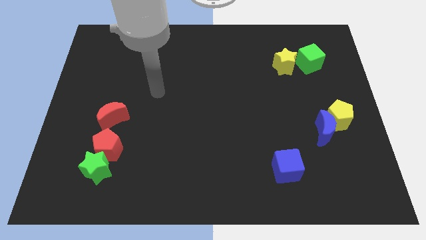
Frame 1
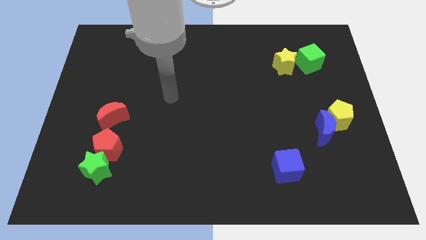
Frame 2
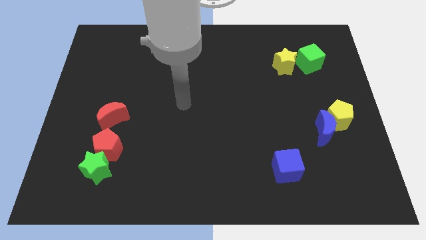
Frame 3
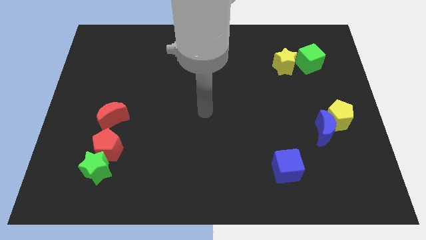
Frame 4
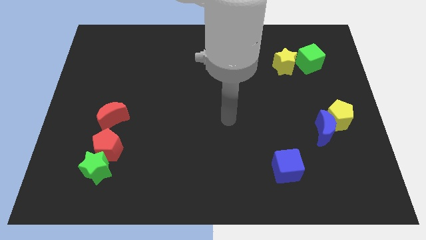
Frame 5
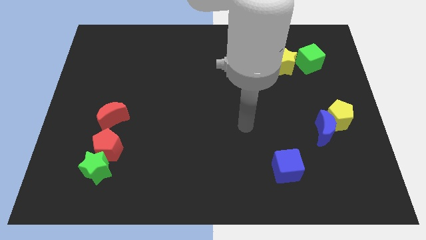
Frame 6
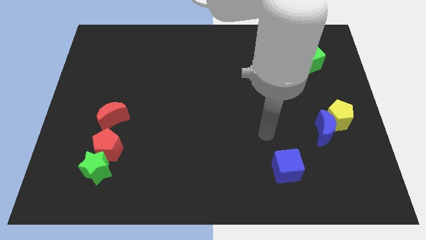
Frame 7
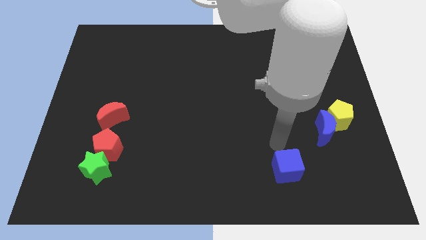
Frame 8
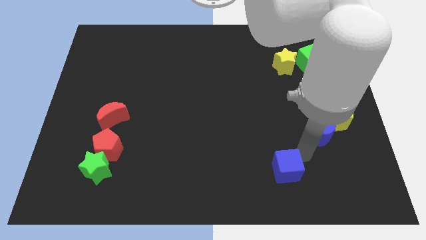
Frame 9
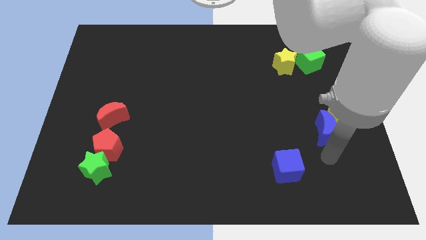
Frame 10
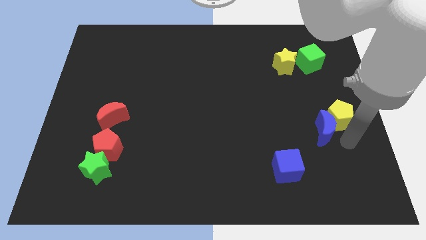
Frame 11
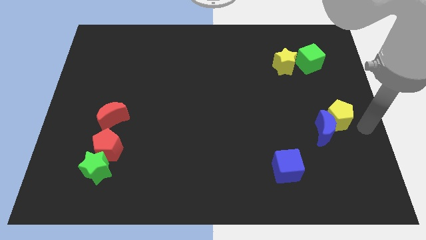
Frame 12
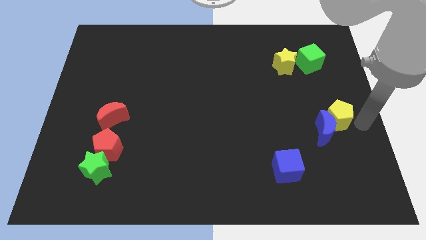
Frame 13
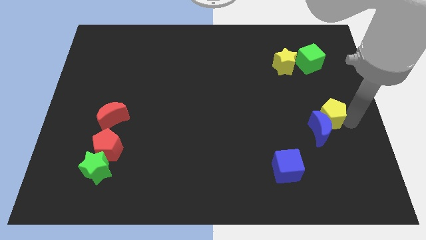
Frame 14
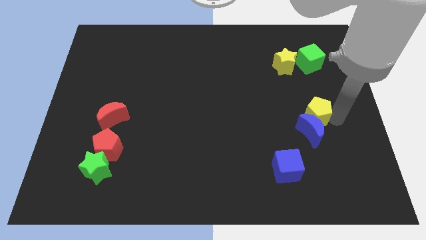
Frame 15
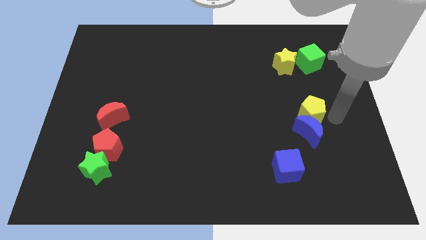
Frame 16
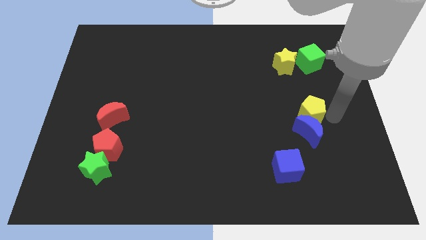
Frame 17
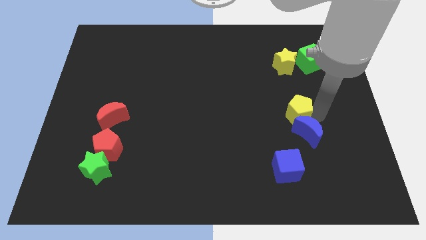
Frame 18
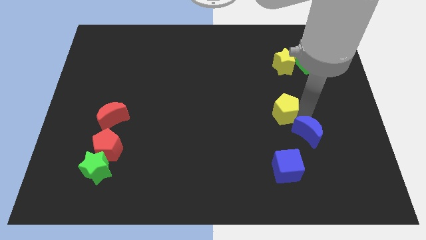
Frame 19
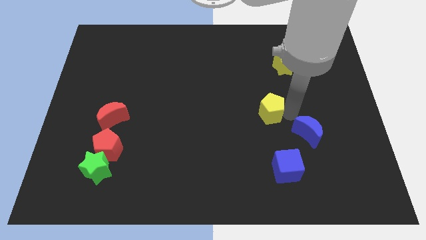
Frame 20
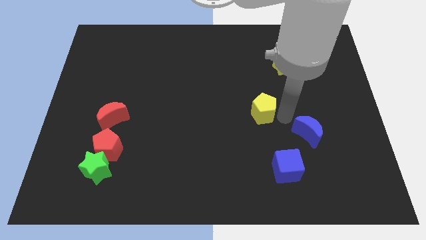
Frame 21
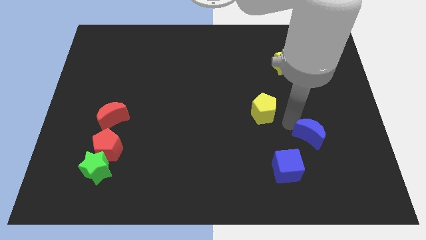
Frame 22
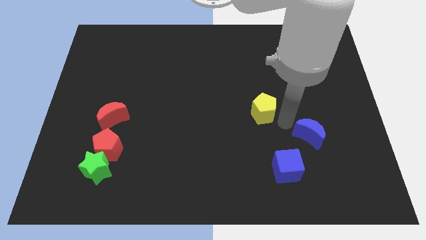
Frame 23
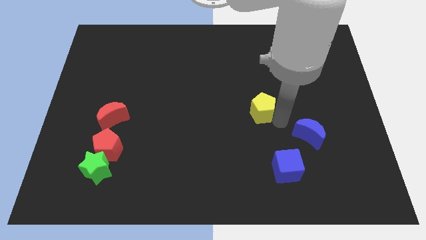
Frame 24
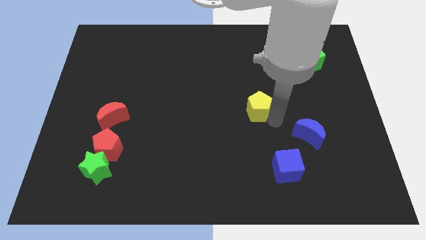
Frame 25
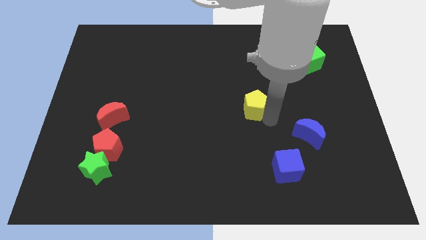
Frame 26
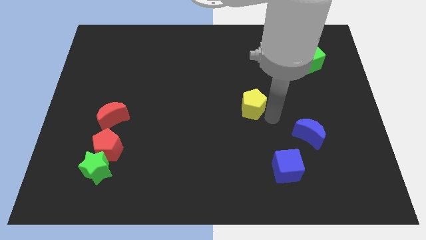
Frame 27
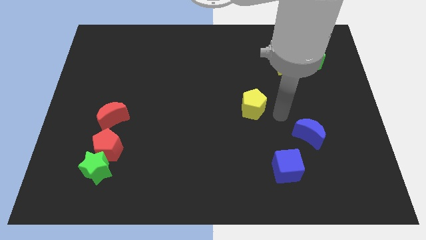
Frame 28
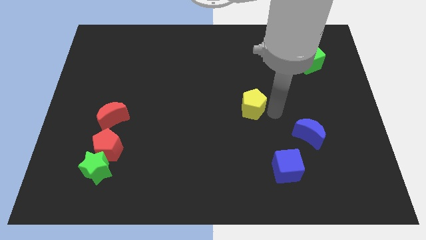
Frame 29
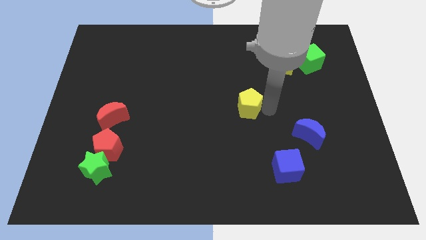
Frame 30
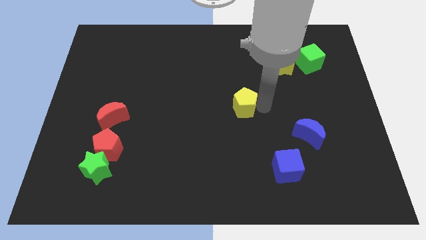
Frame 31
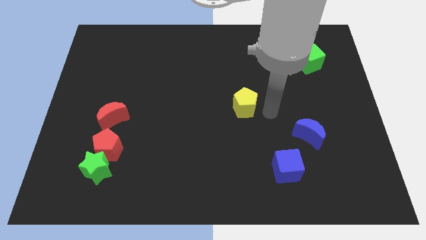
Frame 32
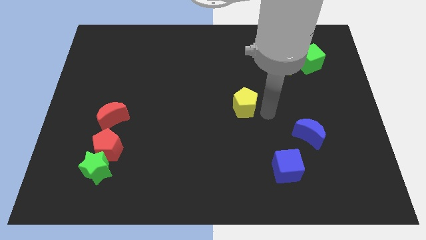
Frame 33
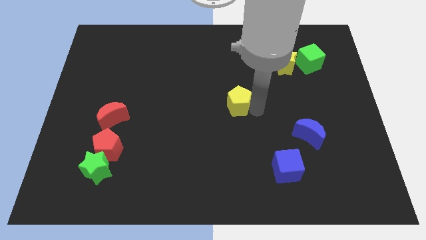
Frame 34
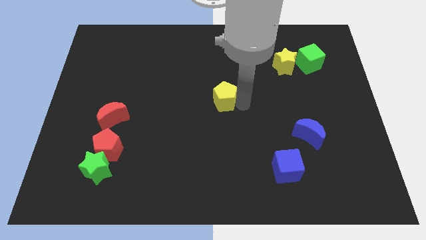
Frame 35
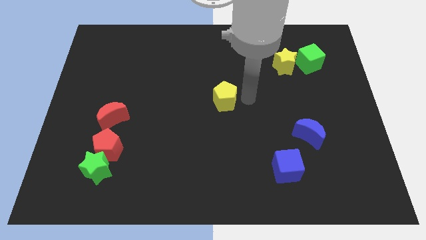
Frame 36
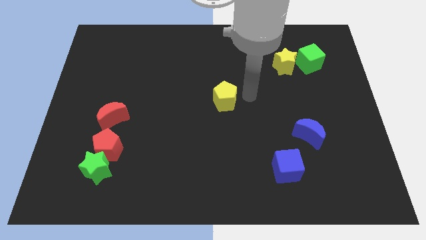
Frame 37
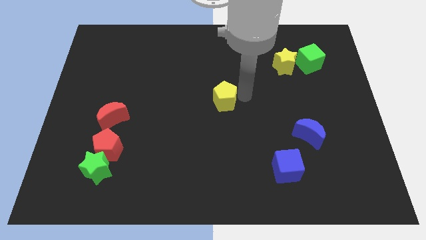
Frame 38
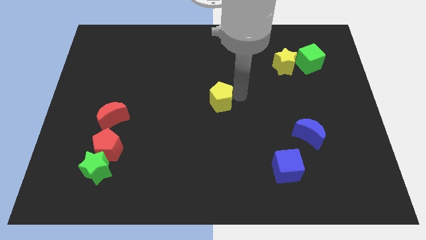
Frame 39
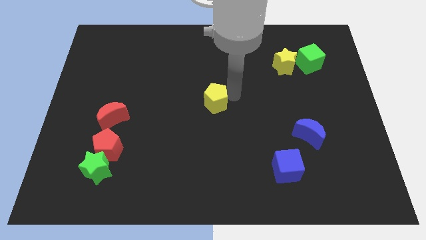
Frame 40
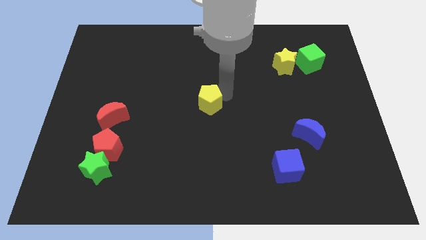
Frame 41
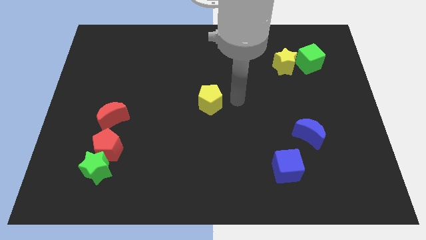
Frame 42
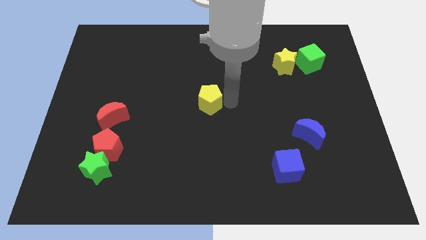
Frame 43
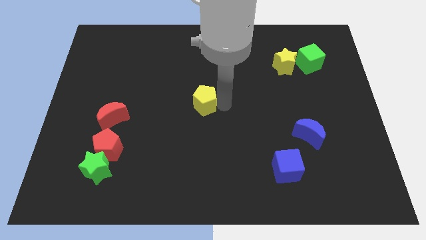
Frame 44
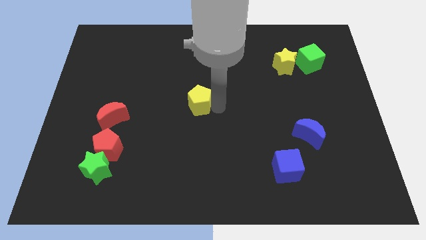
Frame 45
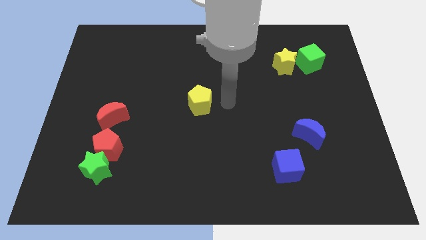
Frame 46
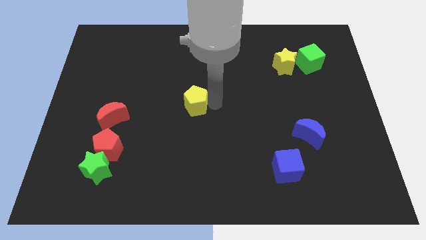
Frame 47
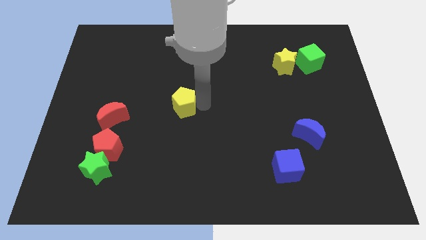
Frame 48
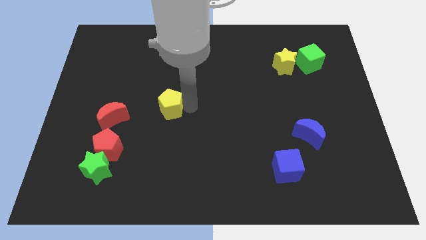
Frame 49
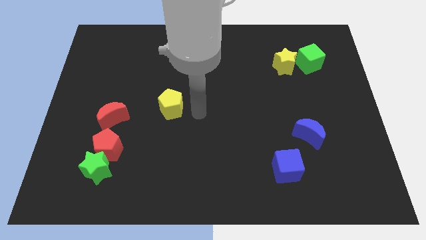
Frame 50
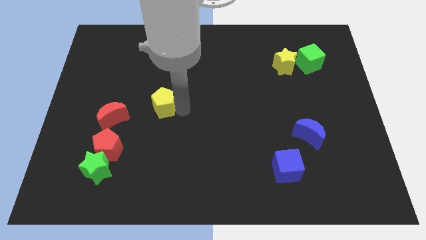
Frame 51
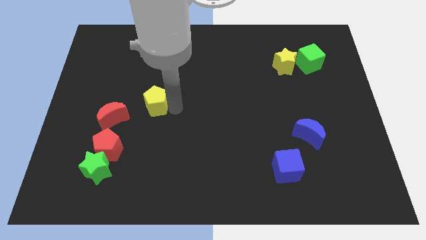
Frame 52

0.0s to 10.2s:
move the yellow pentagon to the top right side of the red moon

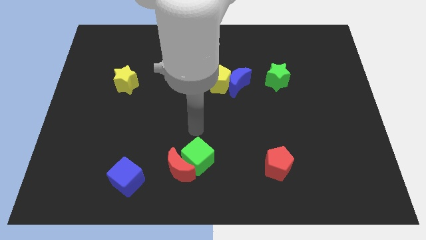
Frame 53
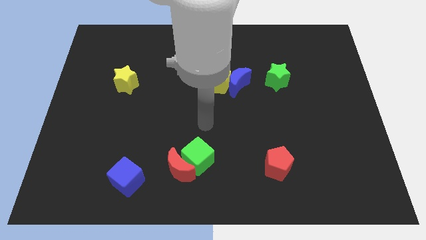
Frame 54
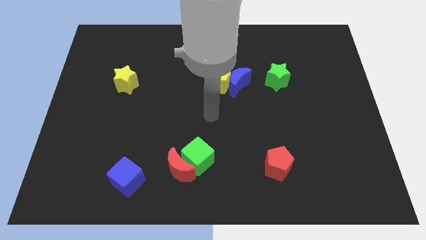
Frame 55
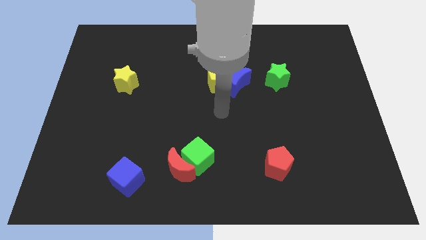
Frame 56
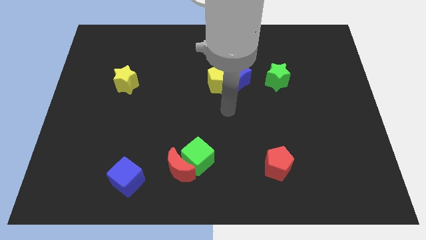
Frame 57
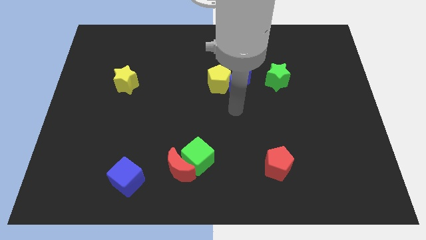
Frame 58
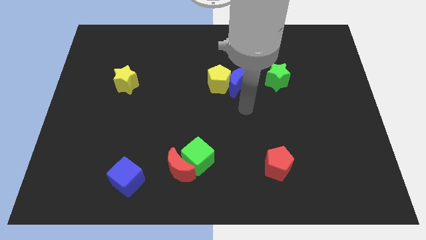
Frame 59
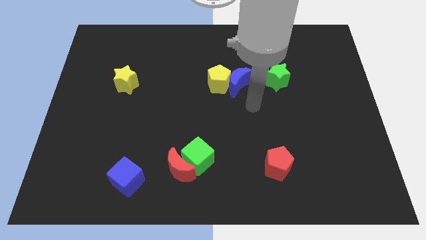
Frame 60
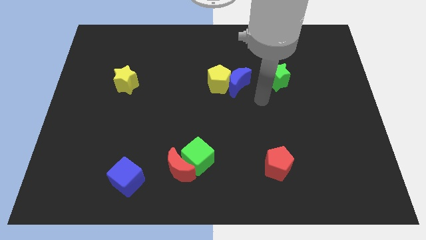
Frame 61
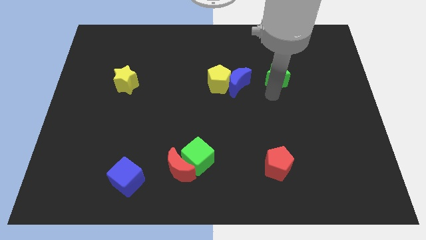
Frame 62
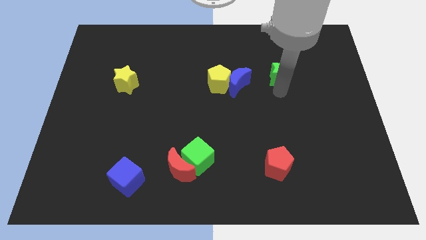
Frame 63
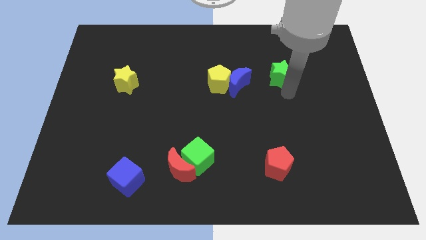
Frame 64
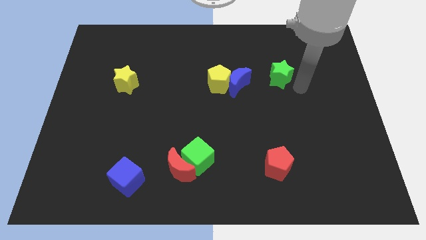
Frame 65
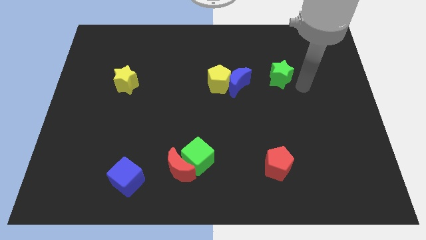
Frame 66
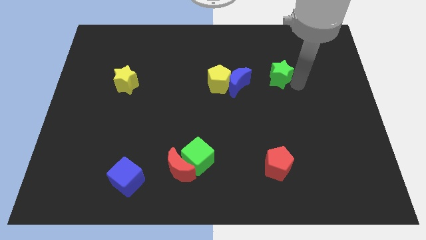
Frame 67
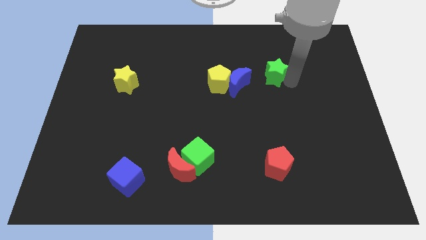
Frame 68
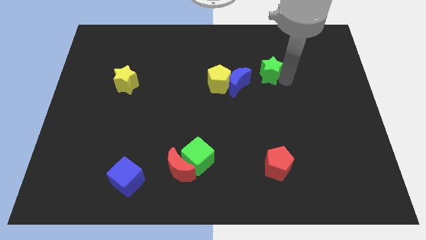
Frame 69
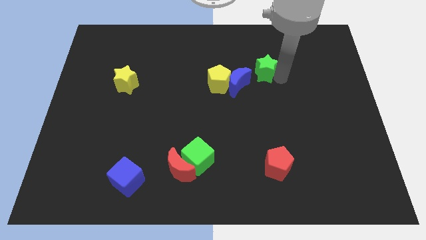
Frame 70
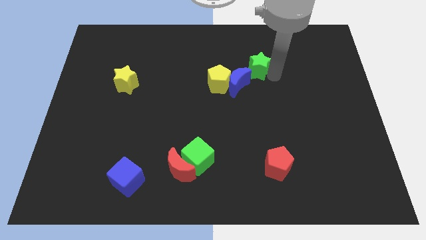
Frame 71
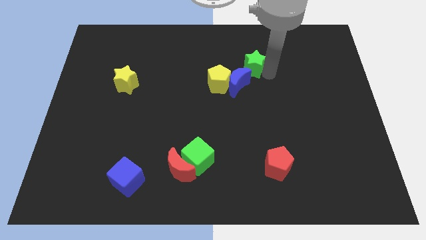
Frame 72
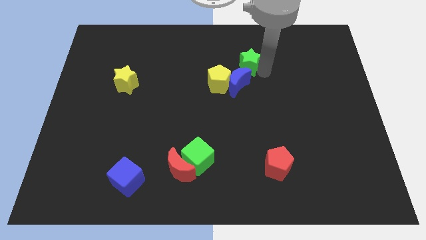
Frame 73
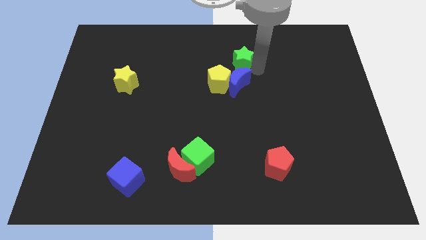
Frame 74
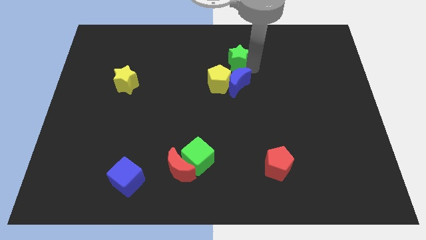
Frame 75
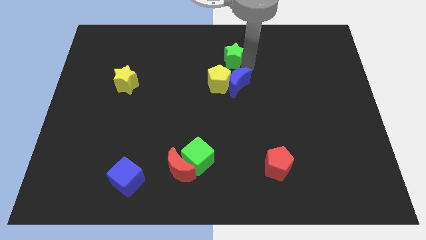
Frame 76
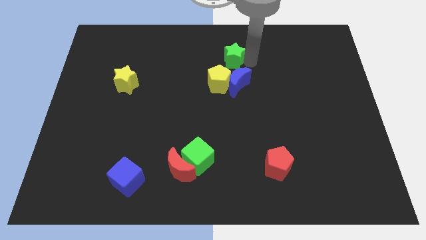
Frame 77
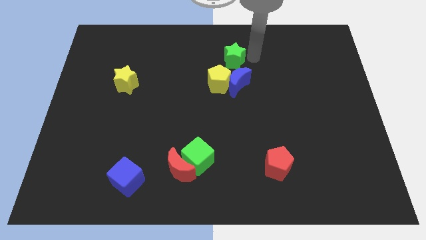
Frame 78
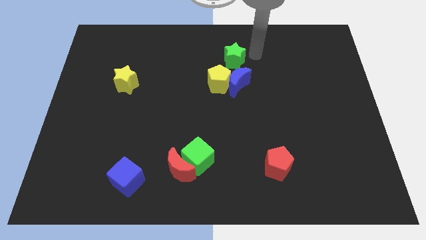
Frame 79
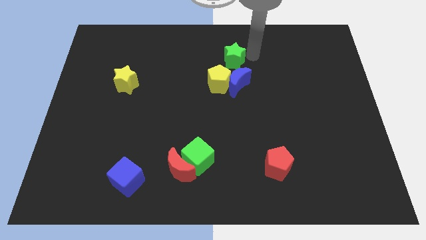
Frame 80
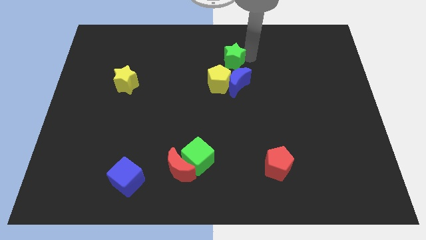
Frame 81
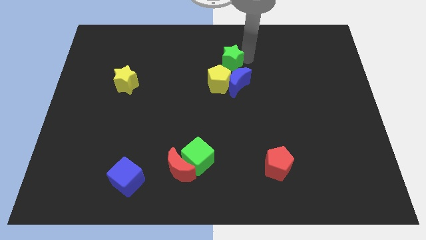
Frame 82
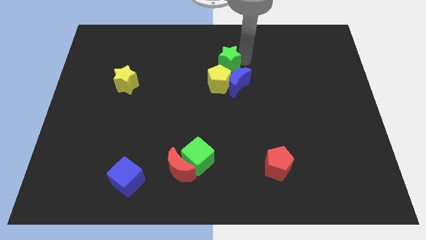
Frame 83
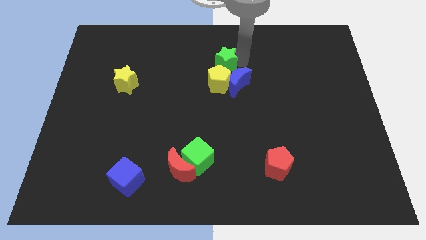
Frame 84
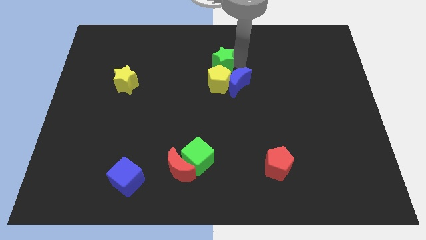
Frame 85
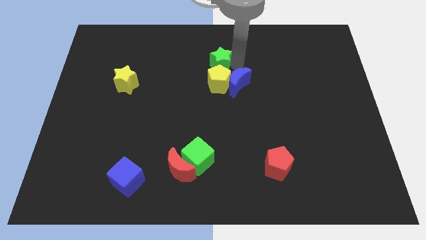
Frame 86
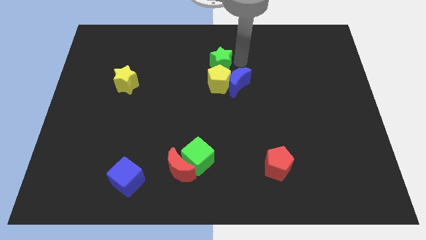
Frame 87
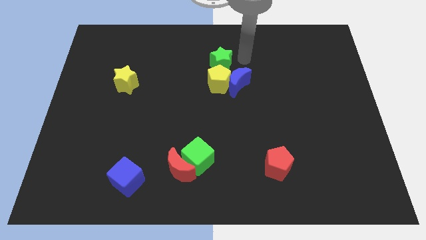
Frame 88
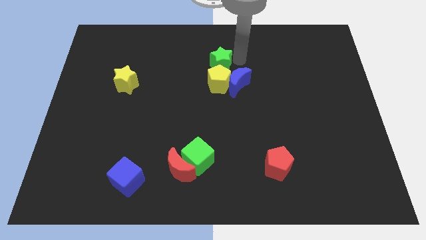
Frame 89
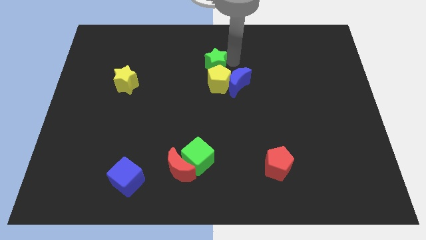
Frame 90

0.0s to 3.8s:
move the green star to the top left of the yellow pentagon
